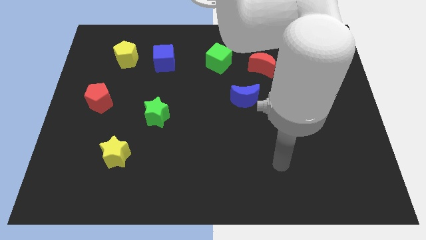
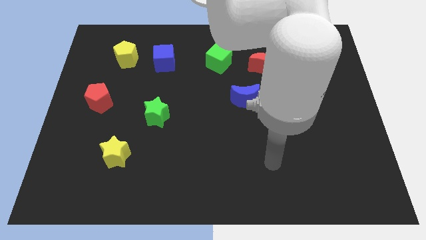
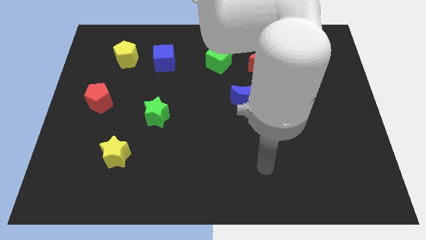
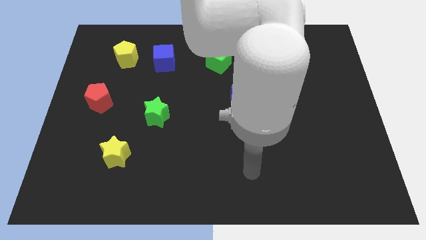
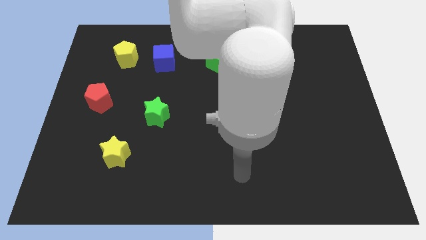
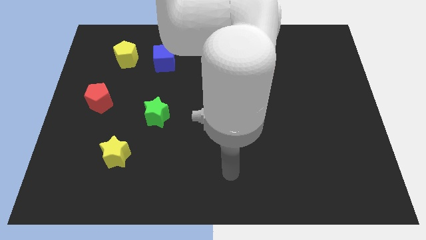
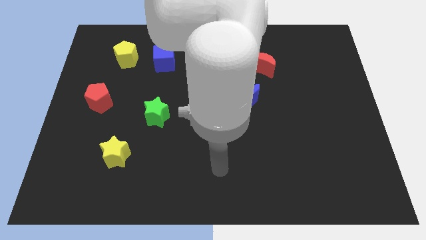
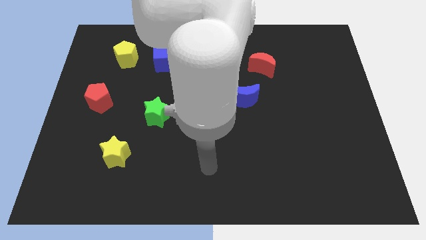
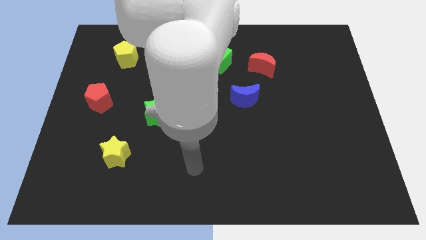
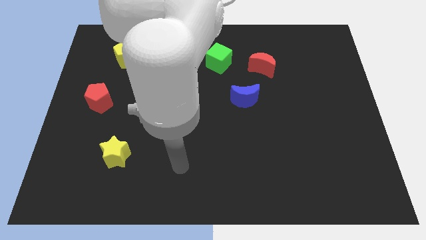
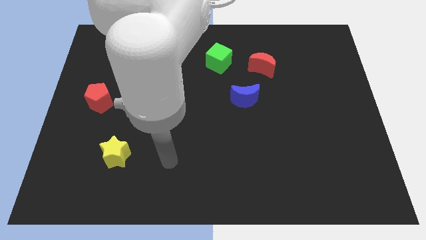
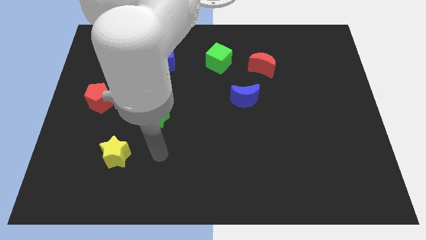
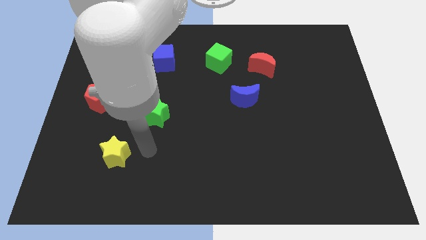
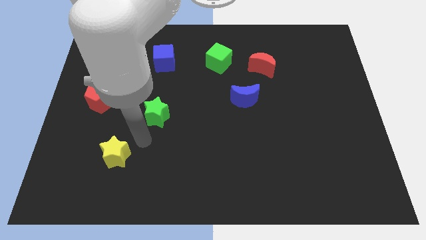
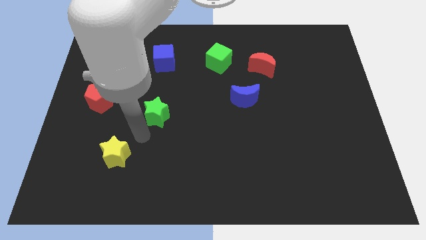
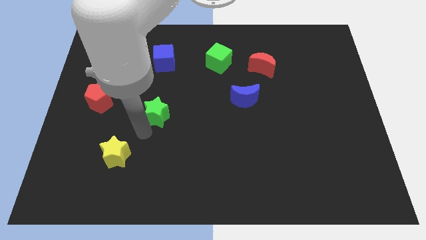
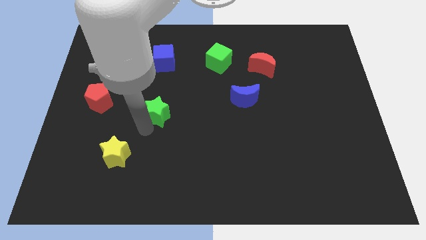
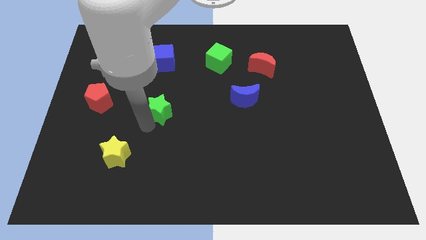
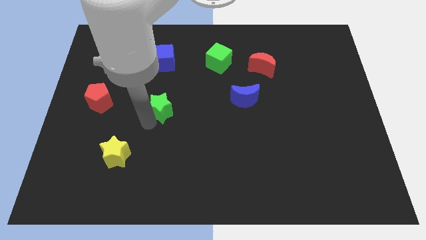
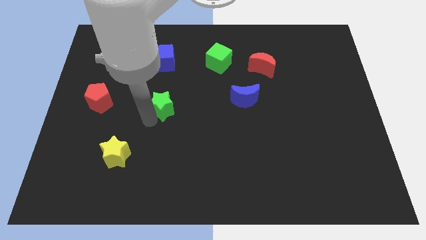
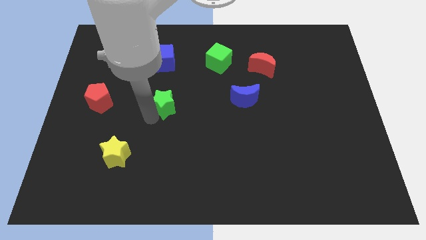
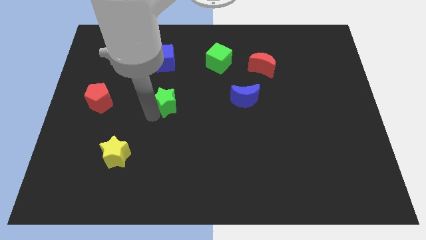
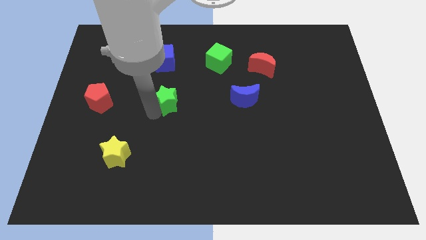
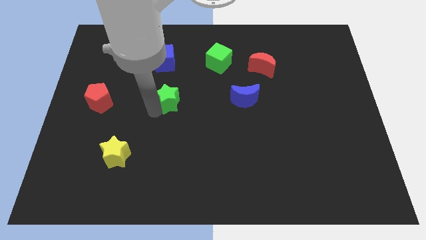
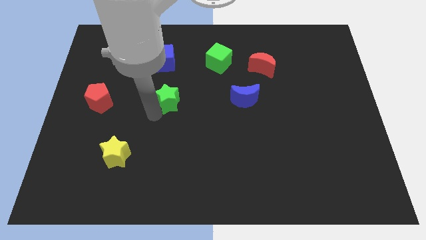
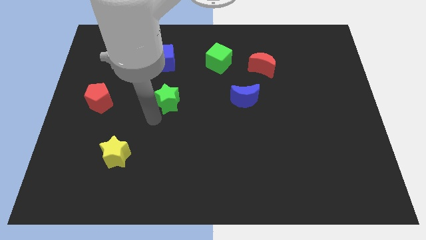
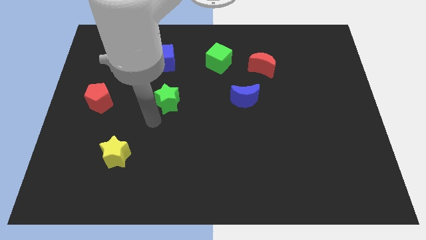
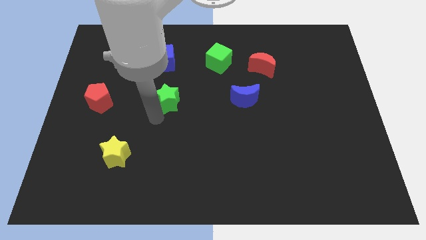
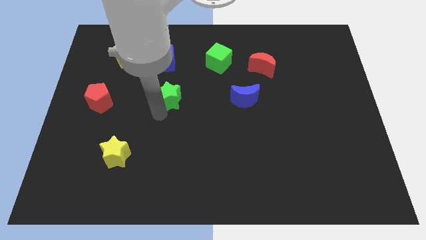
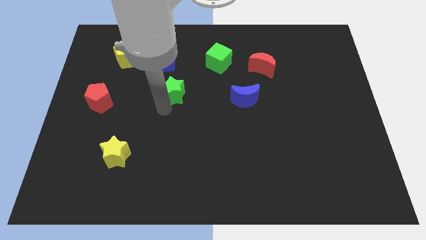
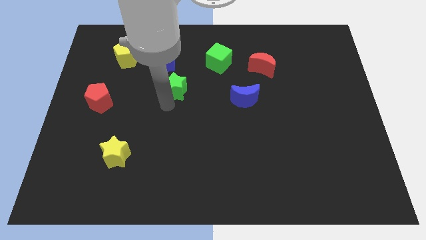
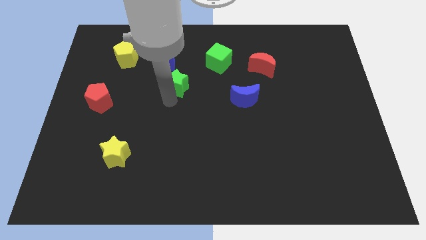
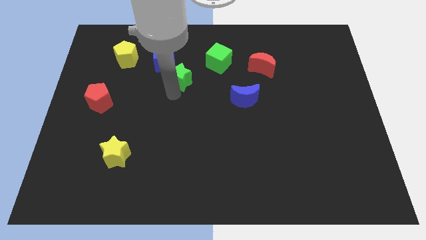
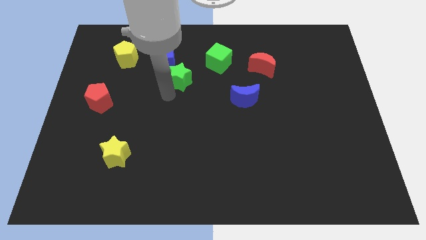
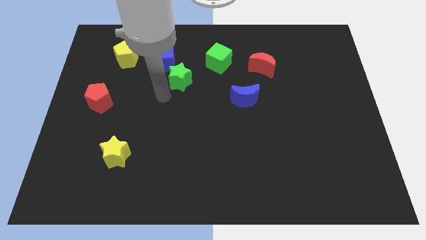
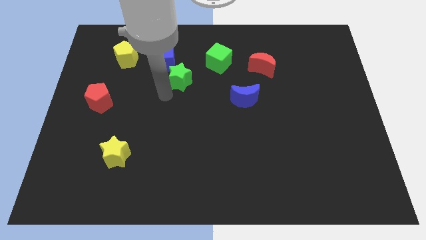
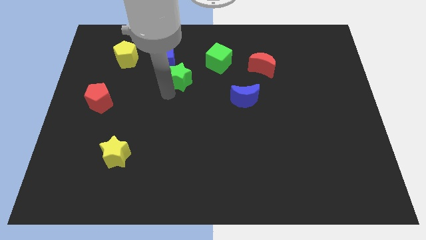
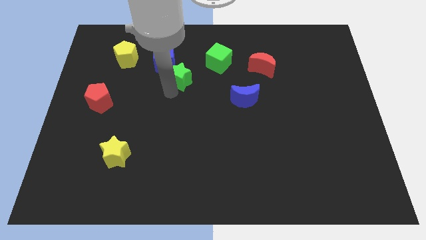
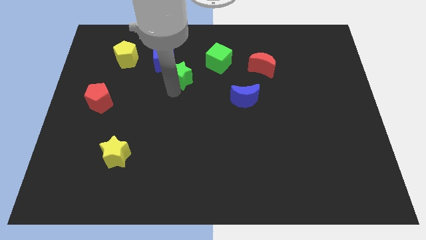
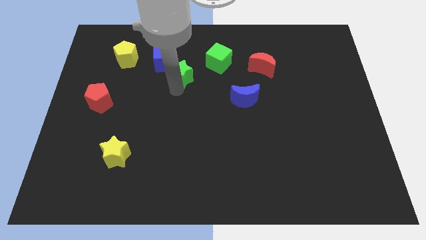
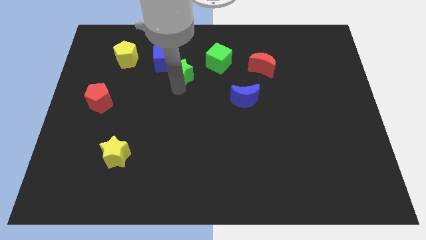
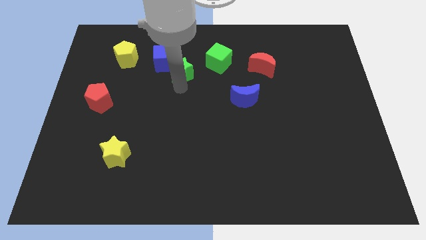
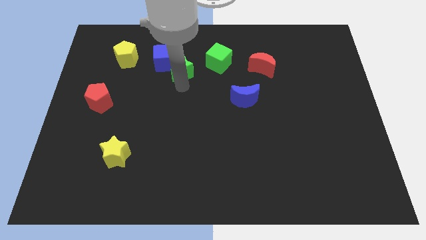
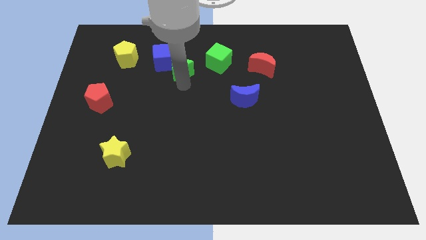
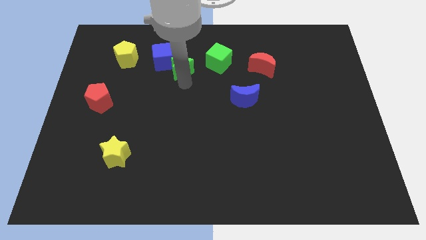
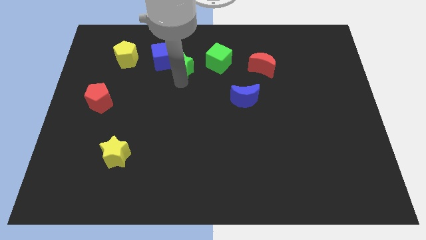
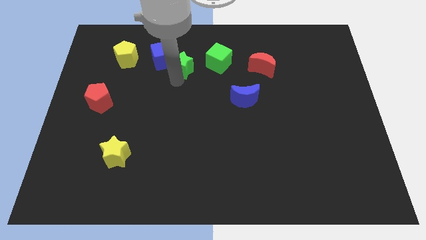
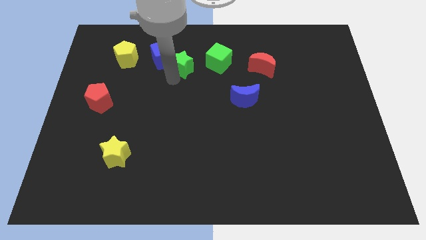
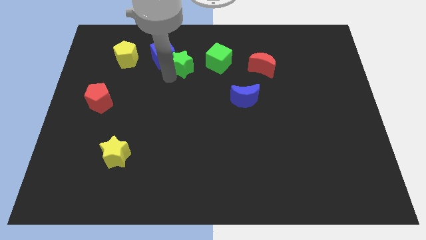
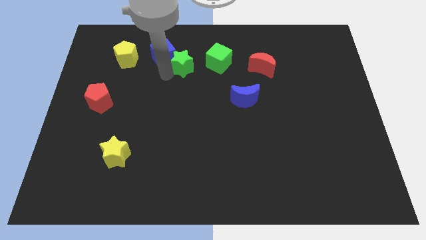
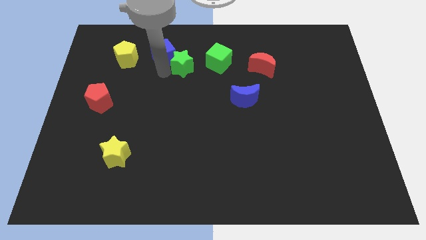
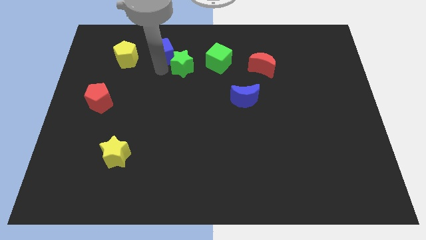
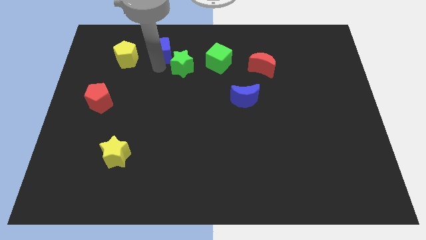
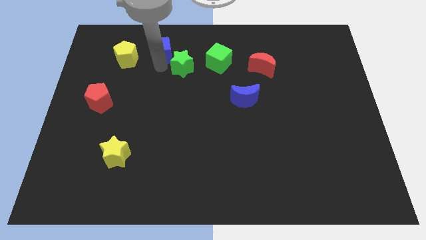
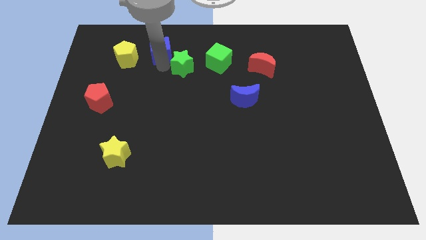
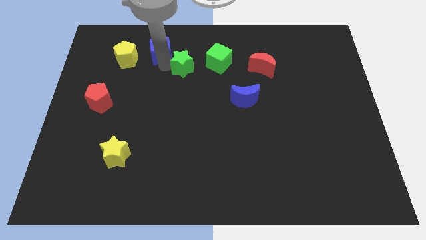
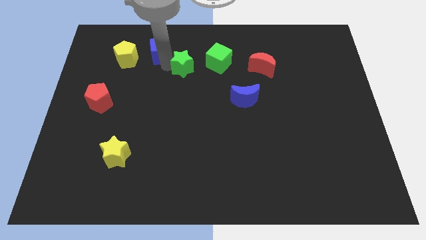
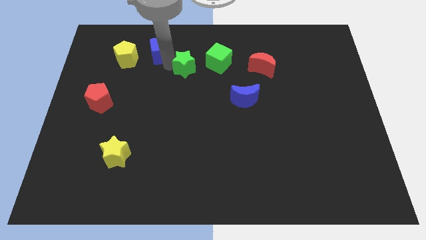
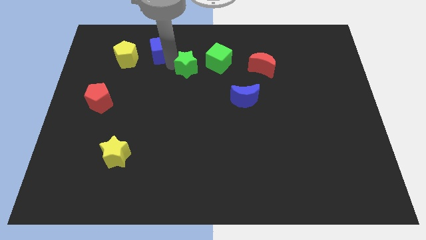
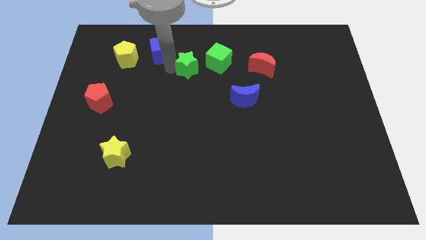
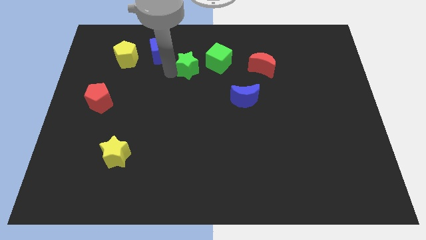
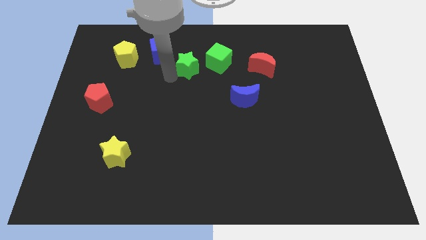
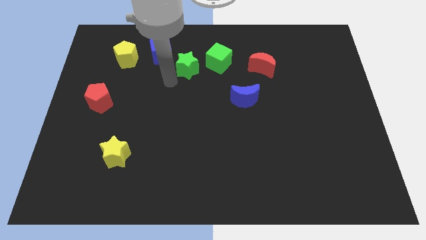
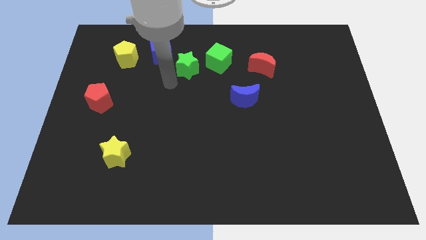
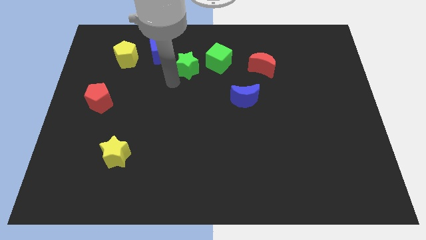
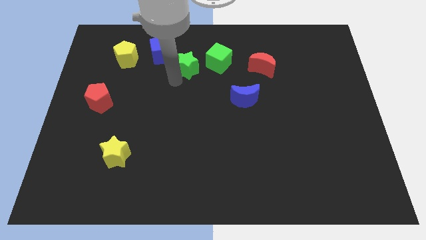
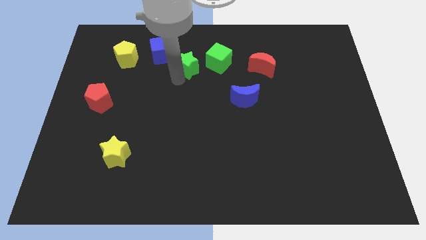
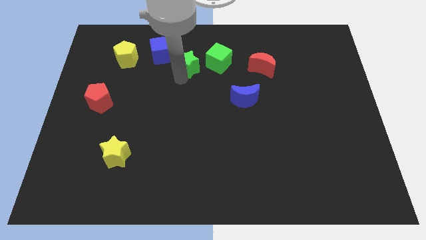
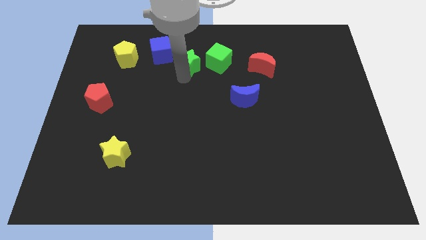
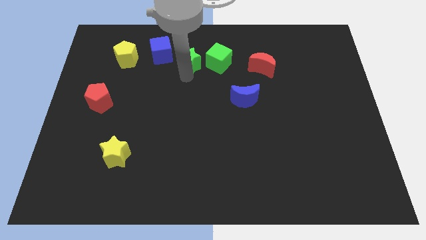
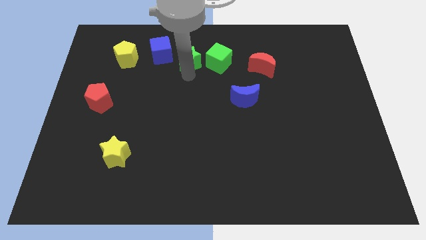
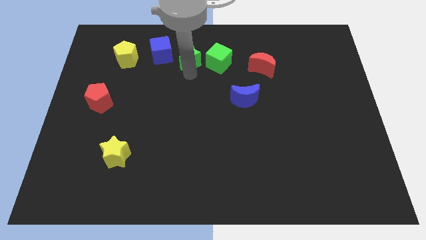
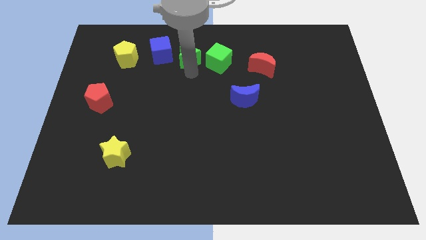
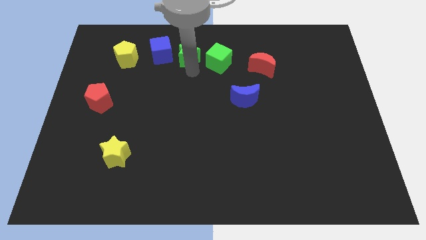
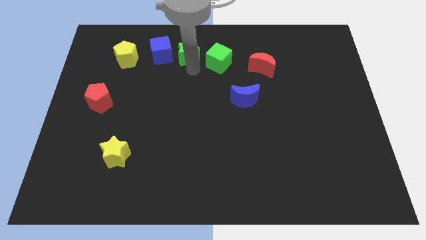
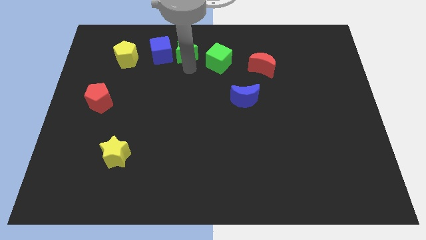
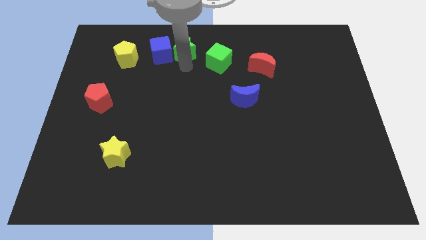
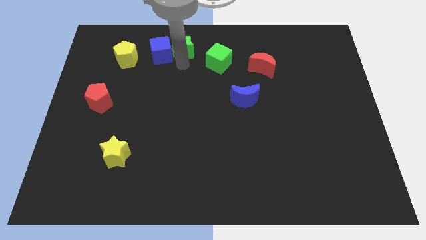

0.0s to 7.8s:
put the green star to the top side
